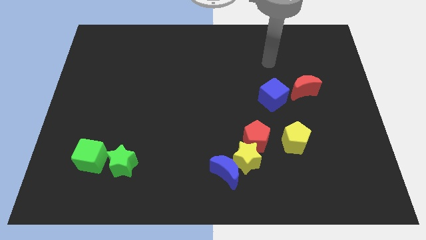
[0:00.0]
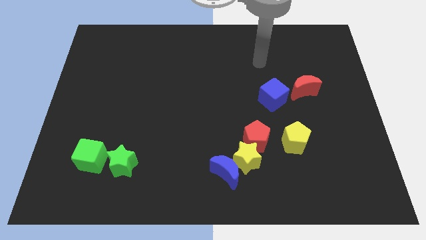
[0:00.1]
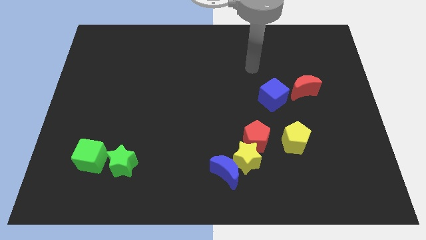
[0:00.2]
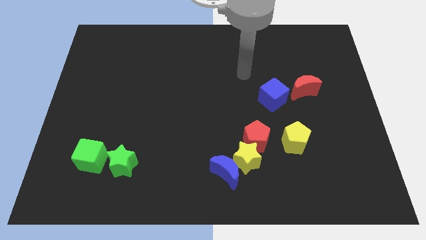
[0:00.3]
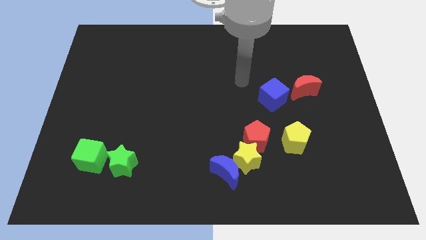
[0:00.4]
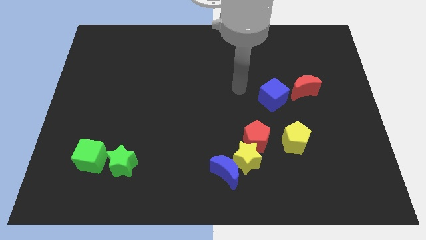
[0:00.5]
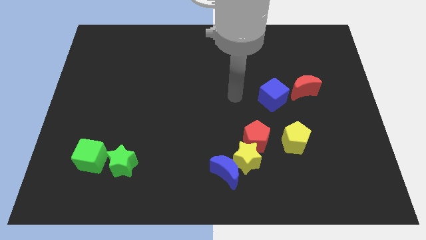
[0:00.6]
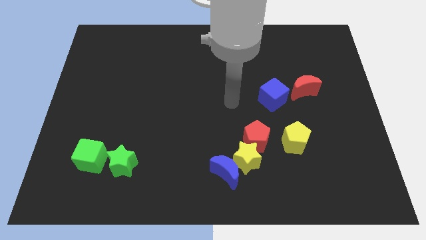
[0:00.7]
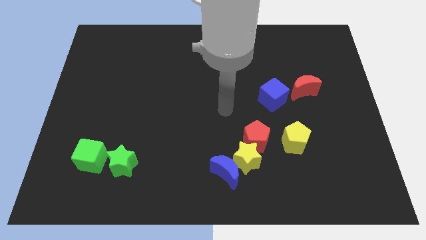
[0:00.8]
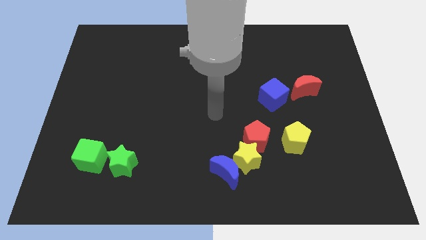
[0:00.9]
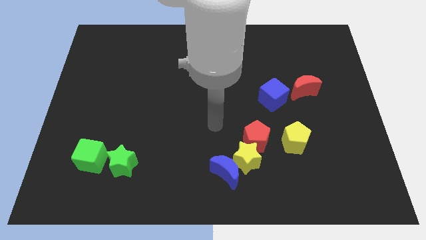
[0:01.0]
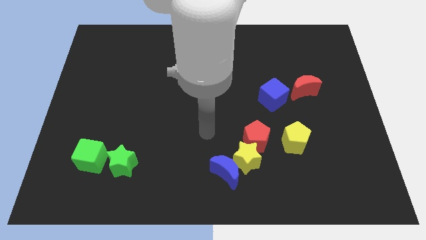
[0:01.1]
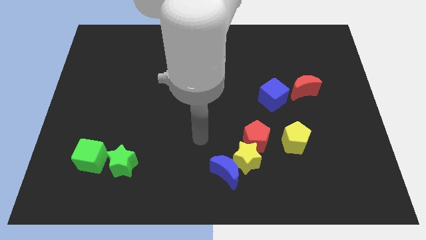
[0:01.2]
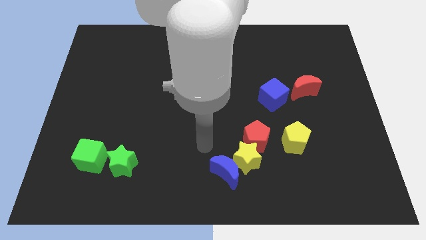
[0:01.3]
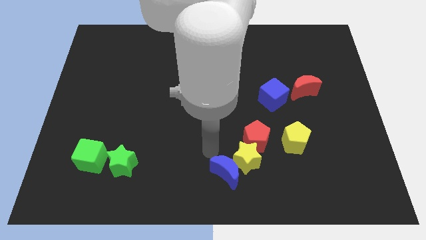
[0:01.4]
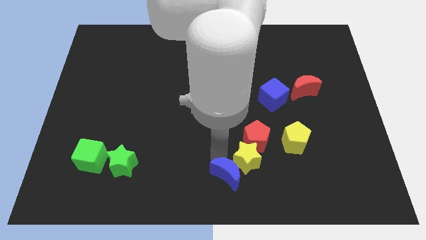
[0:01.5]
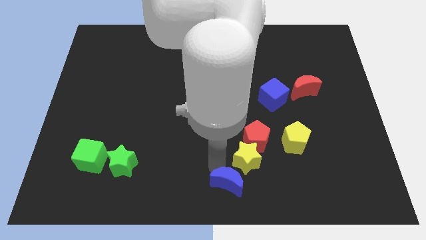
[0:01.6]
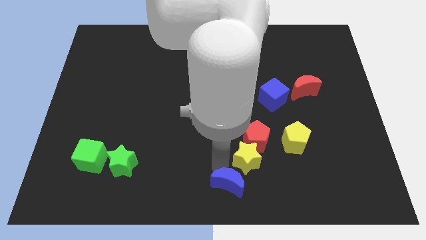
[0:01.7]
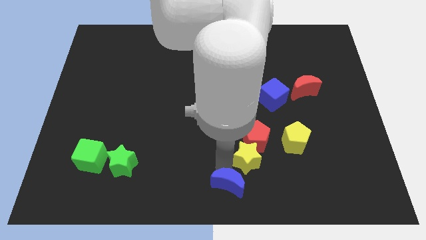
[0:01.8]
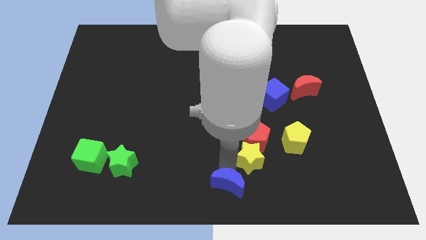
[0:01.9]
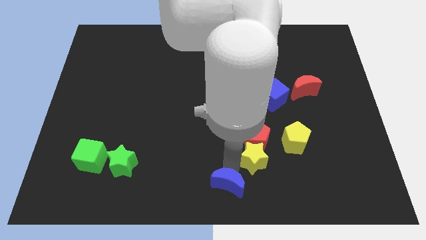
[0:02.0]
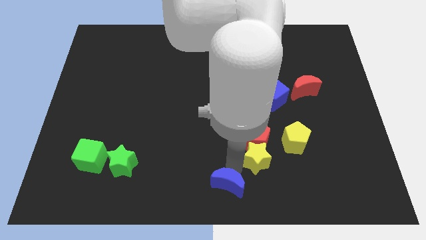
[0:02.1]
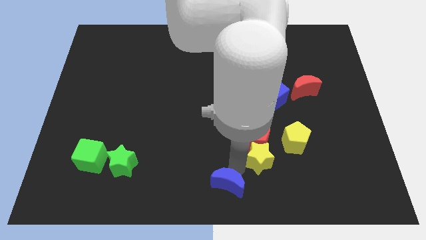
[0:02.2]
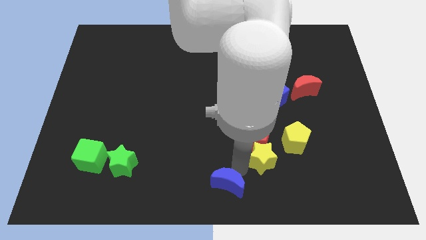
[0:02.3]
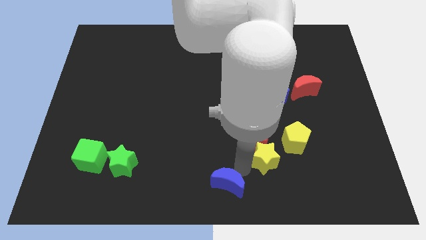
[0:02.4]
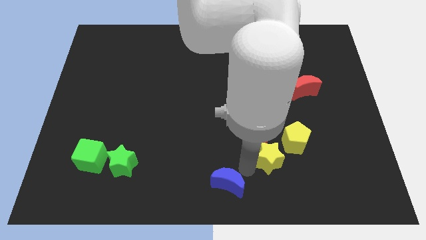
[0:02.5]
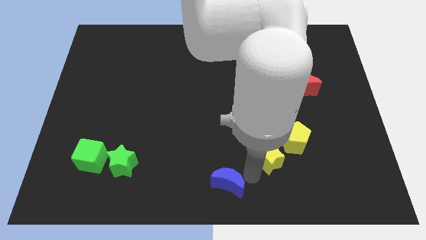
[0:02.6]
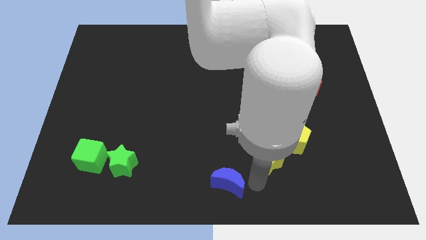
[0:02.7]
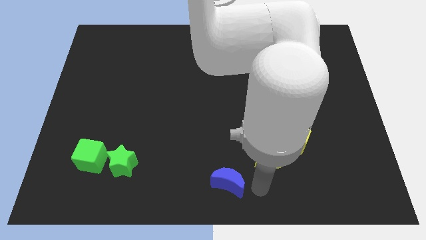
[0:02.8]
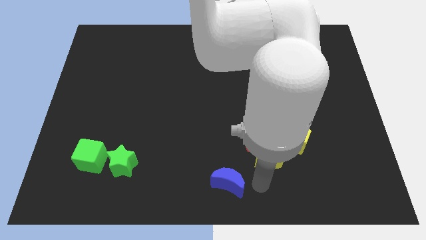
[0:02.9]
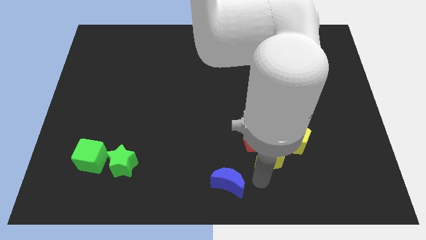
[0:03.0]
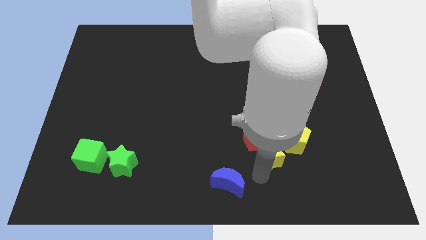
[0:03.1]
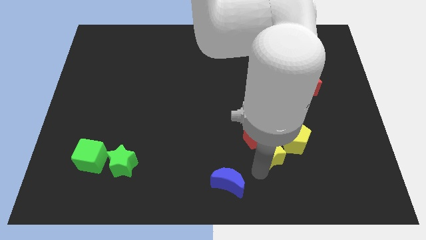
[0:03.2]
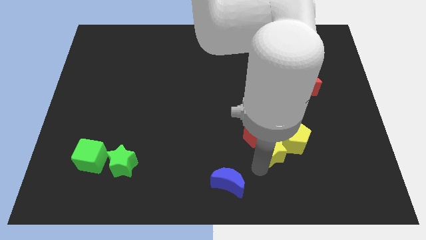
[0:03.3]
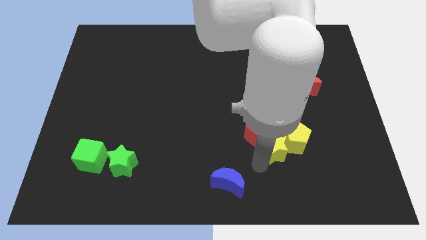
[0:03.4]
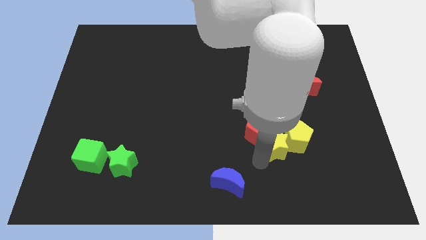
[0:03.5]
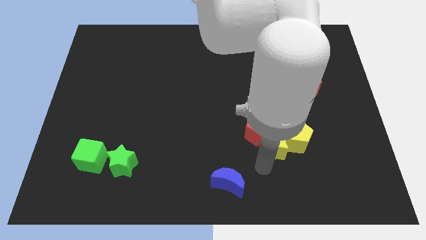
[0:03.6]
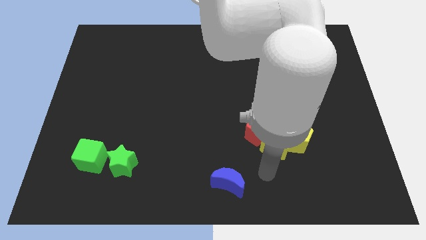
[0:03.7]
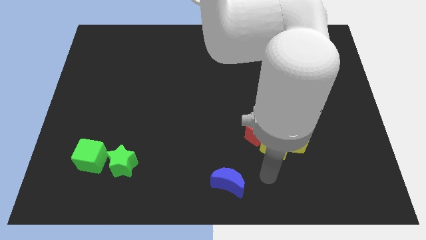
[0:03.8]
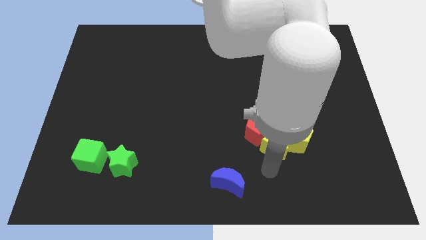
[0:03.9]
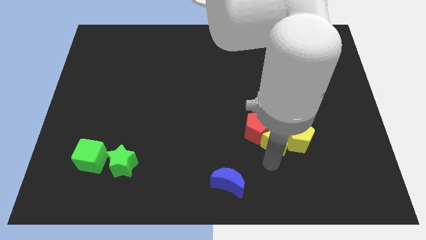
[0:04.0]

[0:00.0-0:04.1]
slightly move the yellow star up and to the right diagonally

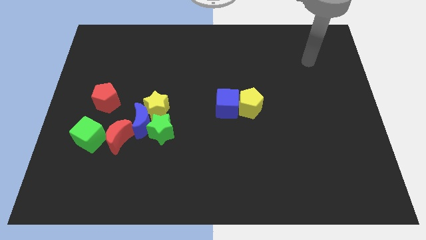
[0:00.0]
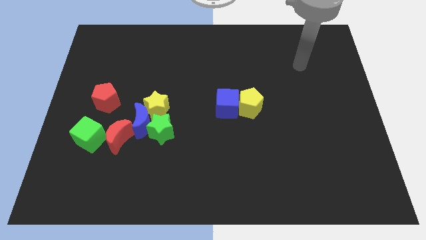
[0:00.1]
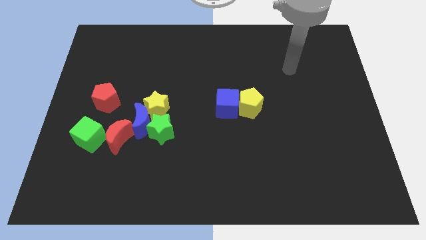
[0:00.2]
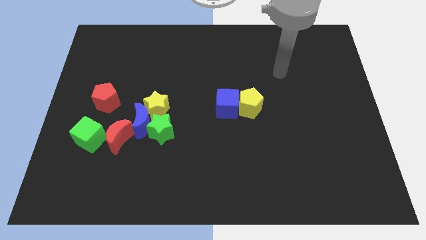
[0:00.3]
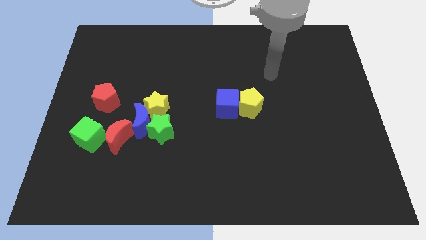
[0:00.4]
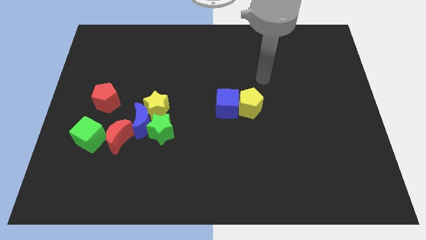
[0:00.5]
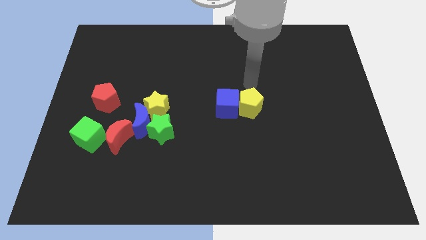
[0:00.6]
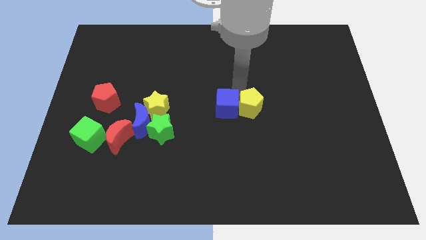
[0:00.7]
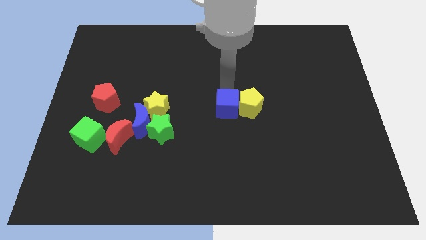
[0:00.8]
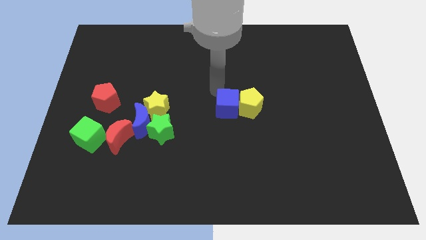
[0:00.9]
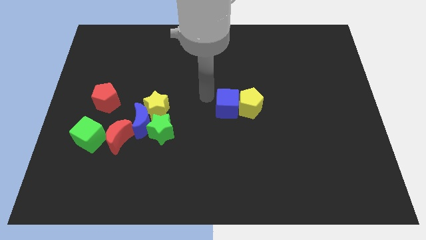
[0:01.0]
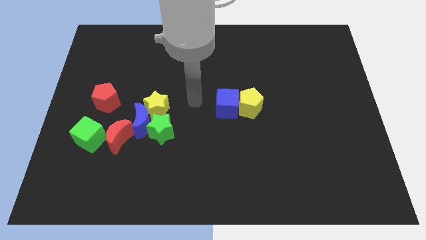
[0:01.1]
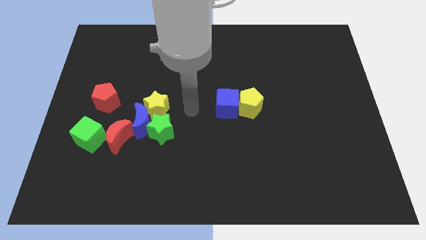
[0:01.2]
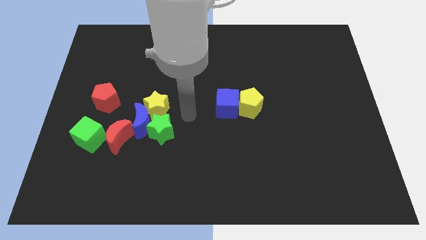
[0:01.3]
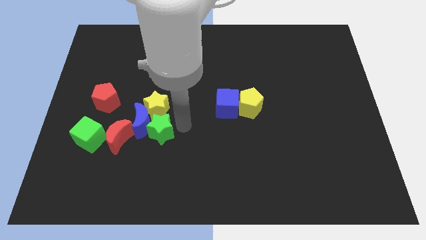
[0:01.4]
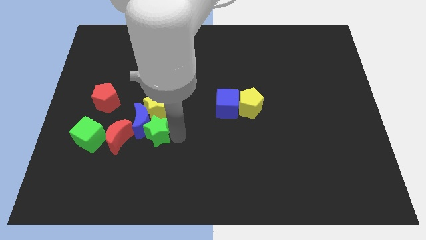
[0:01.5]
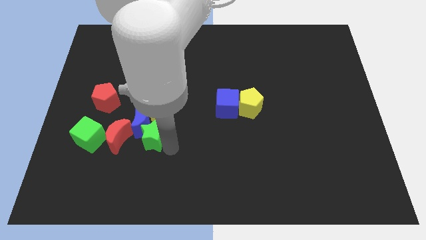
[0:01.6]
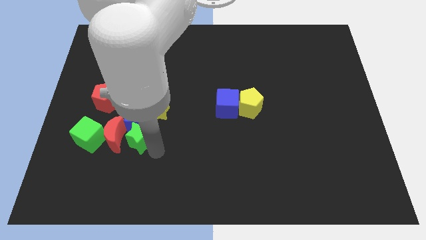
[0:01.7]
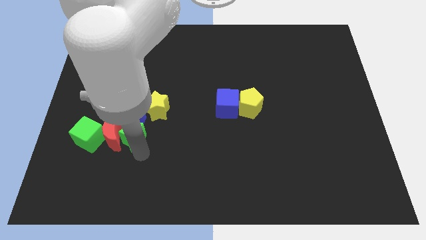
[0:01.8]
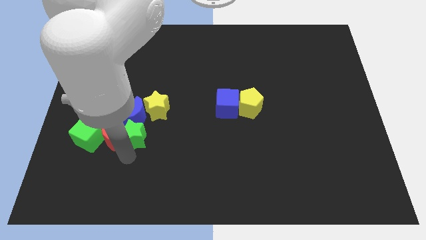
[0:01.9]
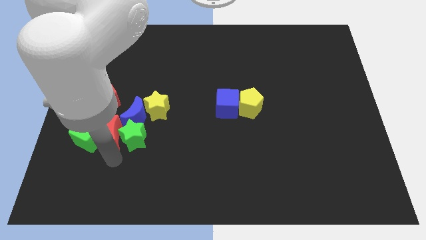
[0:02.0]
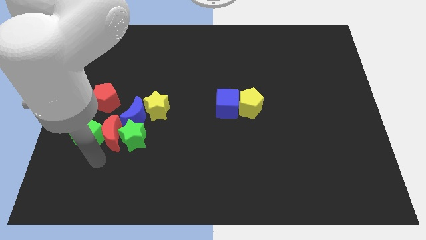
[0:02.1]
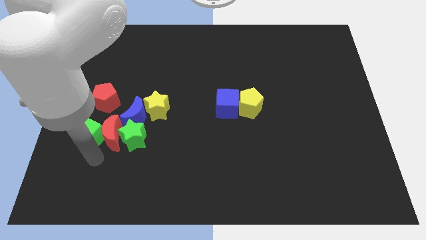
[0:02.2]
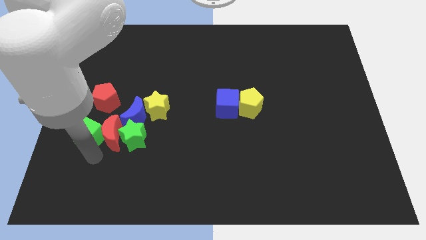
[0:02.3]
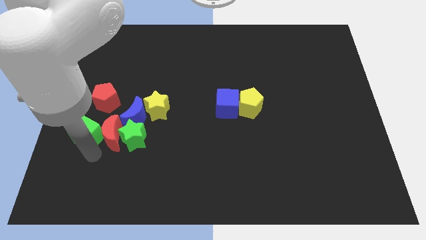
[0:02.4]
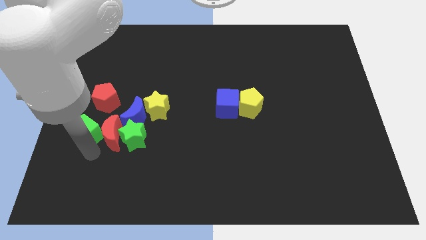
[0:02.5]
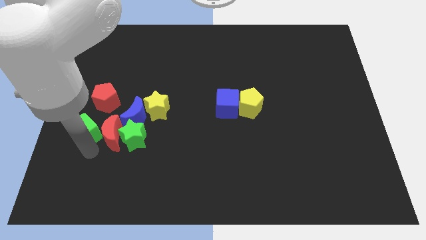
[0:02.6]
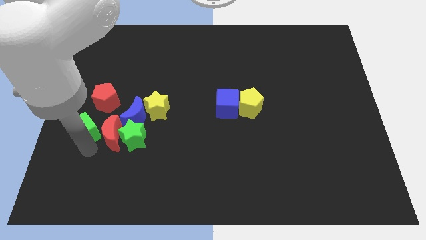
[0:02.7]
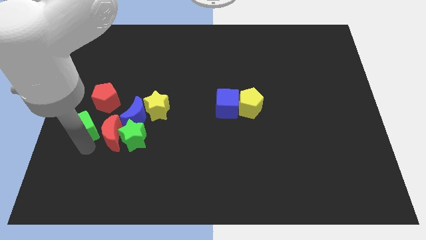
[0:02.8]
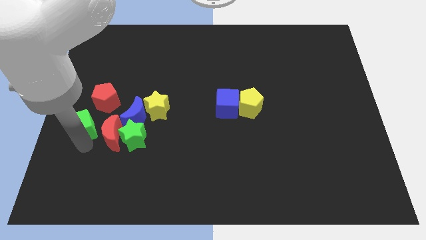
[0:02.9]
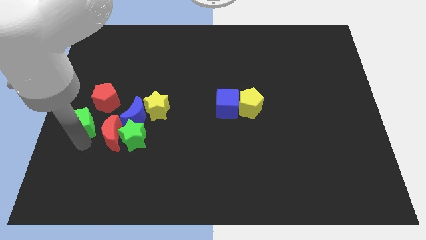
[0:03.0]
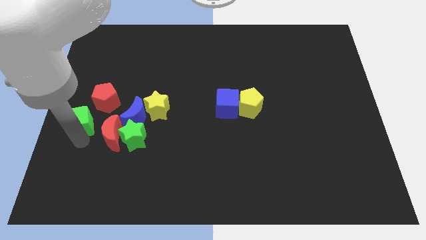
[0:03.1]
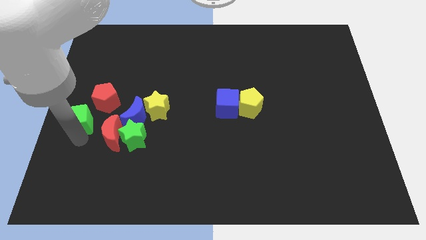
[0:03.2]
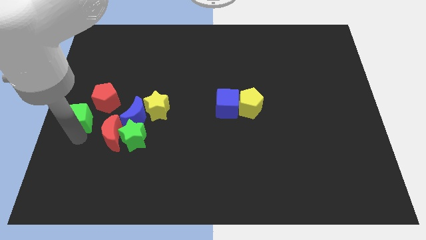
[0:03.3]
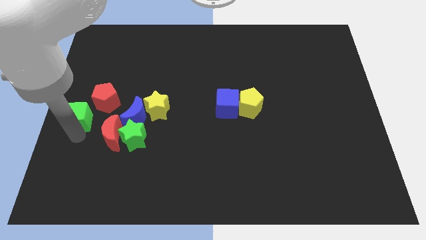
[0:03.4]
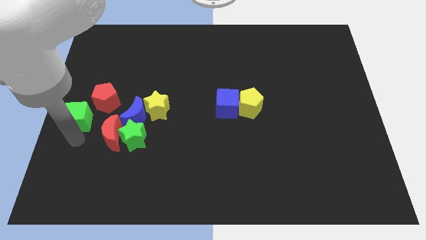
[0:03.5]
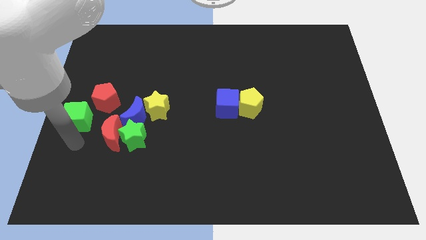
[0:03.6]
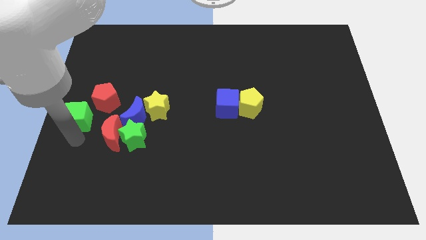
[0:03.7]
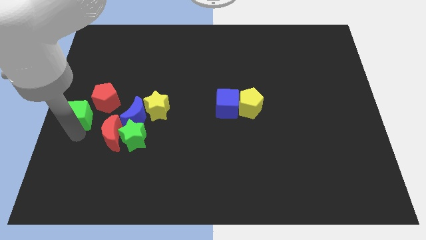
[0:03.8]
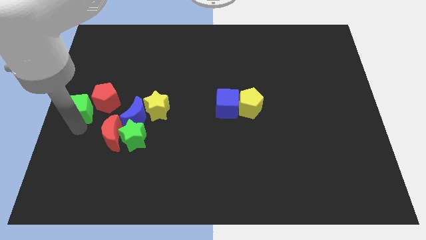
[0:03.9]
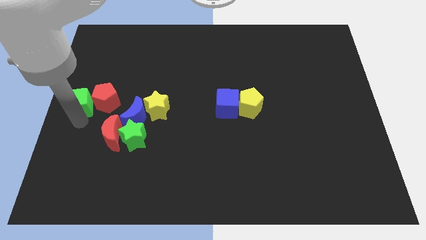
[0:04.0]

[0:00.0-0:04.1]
push the green cube upwards a bit
